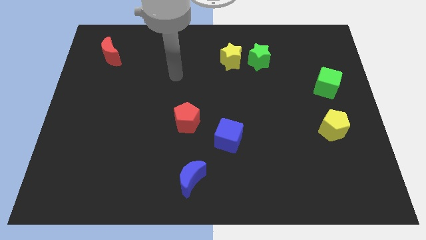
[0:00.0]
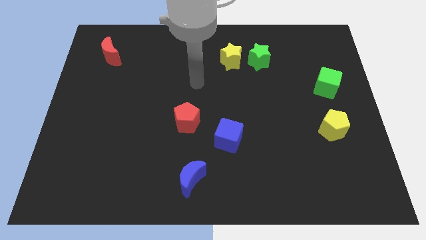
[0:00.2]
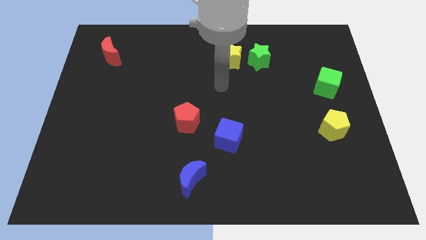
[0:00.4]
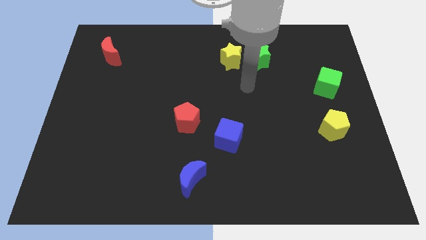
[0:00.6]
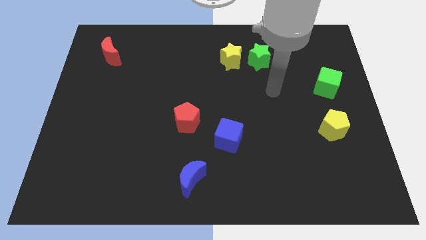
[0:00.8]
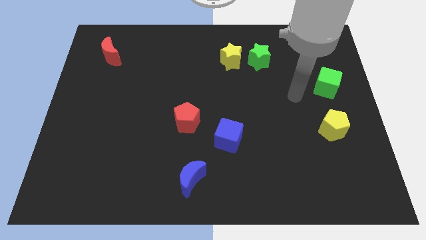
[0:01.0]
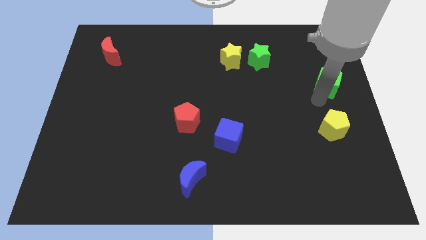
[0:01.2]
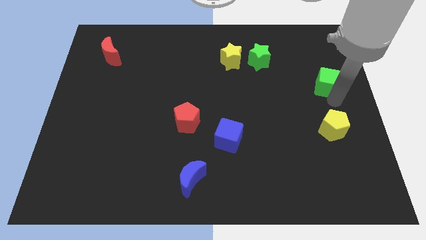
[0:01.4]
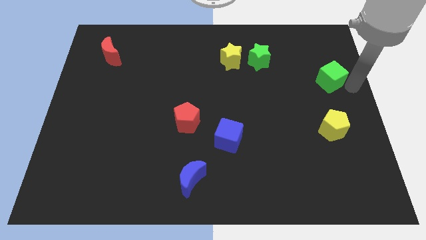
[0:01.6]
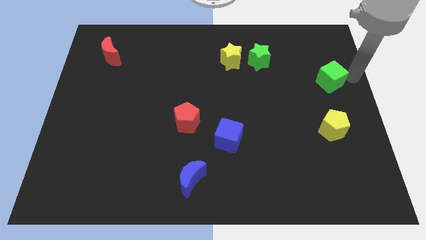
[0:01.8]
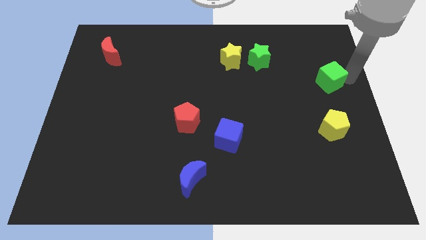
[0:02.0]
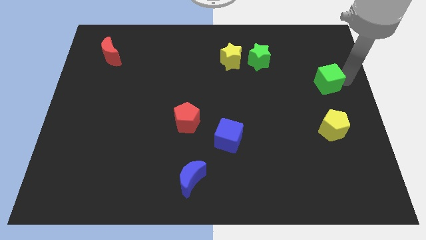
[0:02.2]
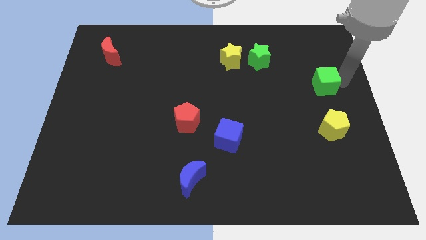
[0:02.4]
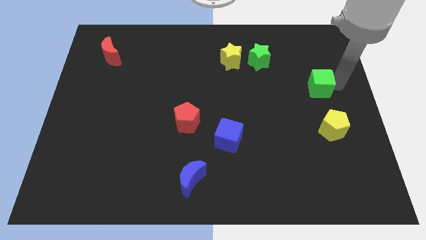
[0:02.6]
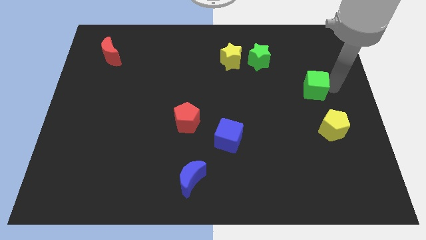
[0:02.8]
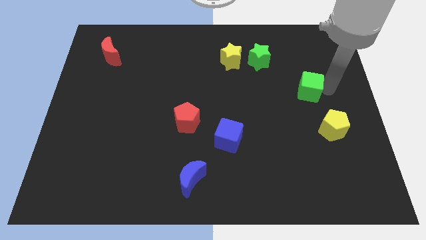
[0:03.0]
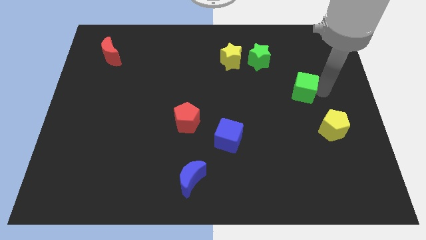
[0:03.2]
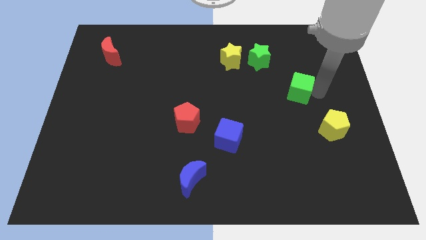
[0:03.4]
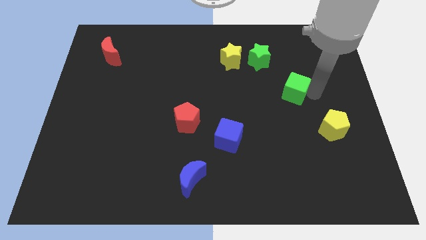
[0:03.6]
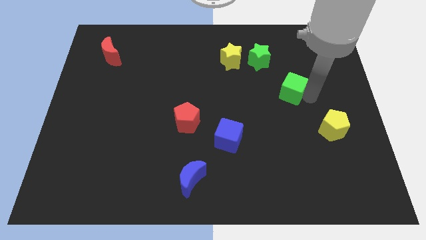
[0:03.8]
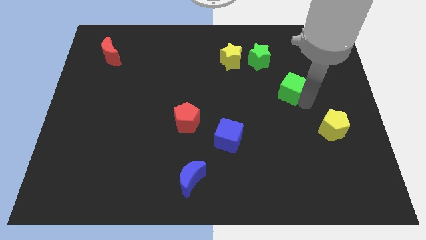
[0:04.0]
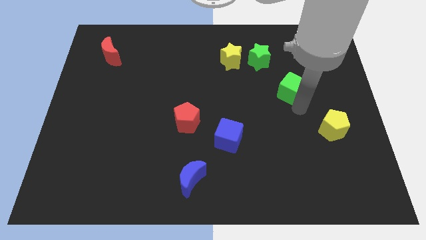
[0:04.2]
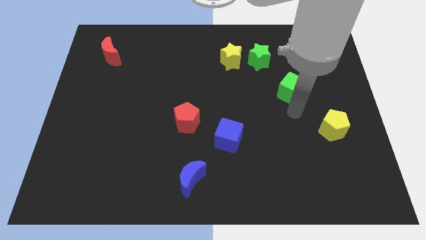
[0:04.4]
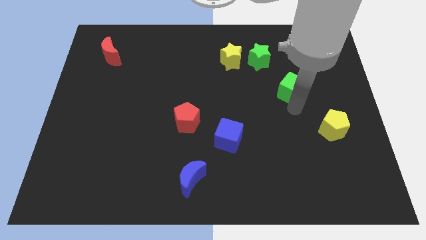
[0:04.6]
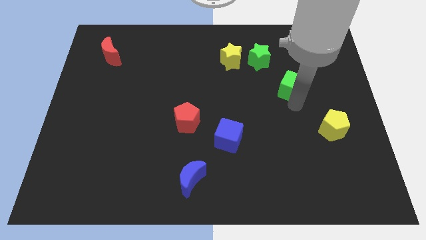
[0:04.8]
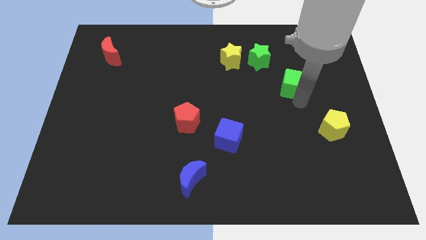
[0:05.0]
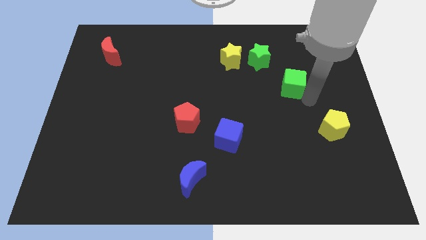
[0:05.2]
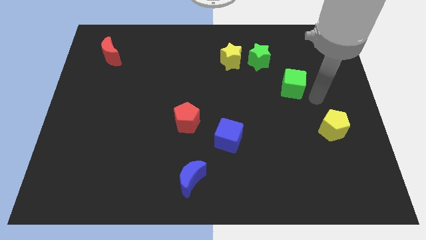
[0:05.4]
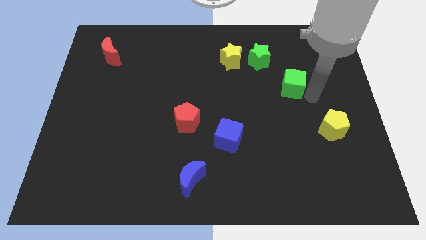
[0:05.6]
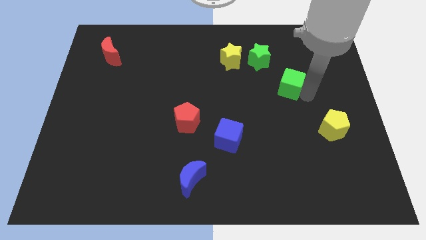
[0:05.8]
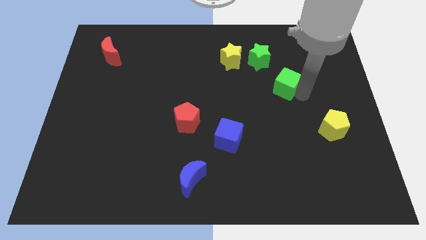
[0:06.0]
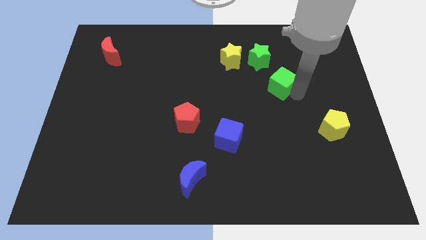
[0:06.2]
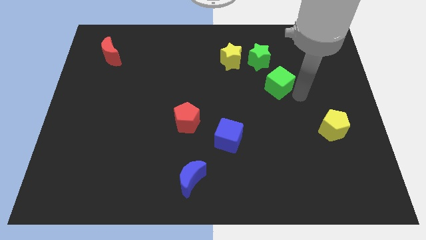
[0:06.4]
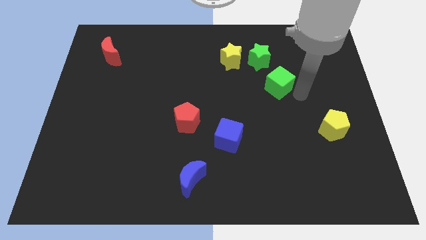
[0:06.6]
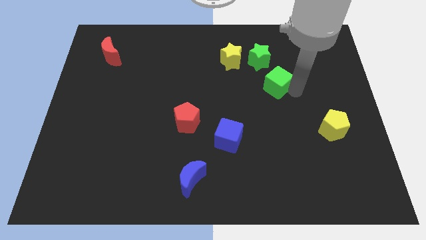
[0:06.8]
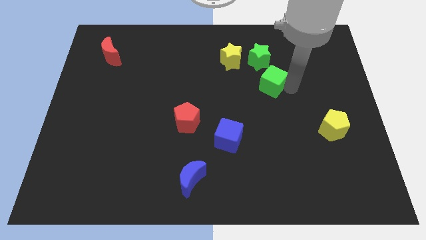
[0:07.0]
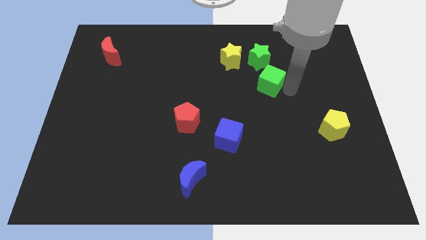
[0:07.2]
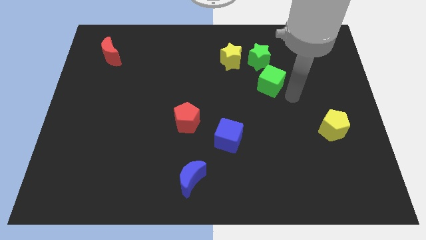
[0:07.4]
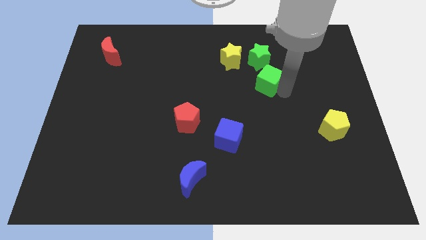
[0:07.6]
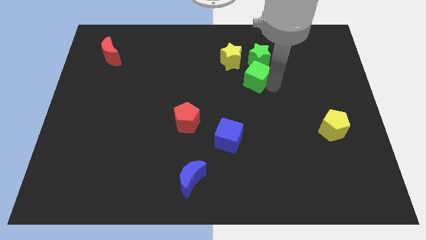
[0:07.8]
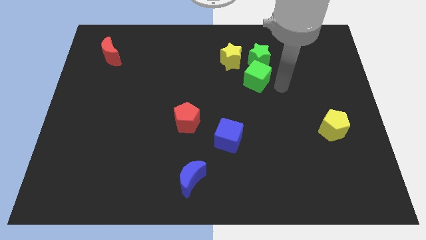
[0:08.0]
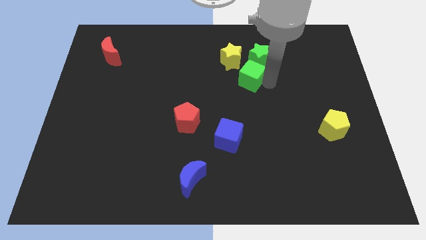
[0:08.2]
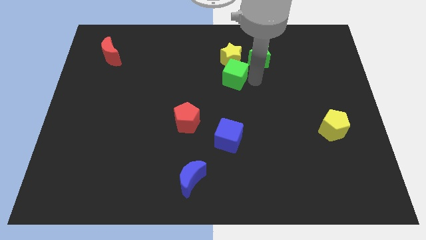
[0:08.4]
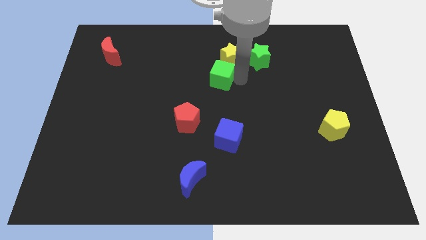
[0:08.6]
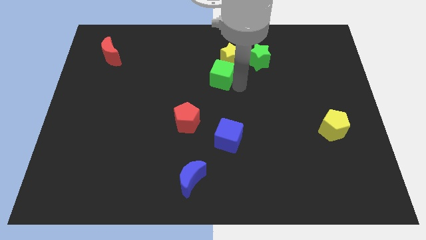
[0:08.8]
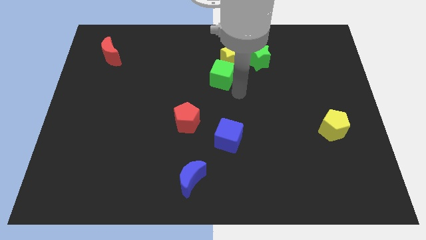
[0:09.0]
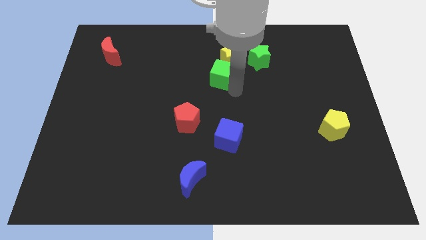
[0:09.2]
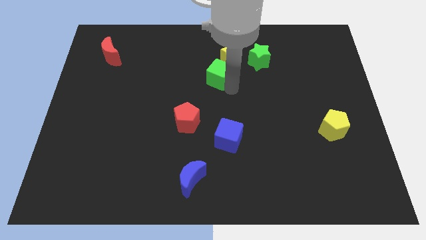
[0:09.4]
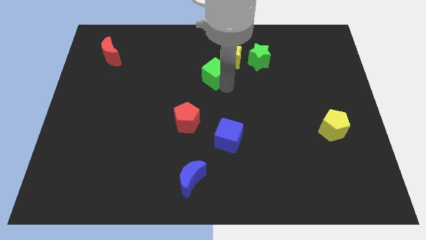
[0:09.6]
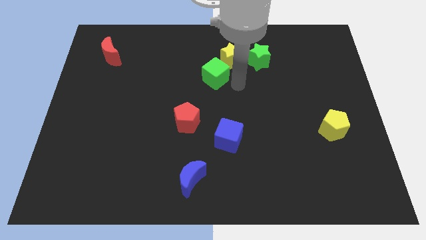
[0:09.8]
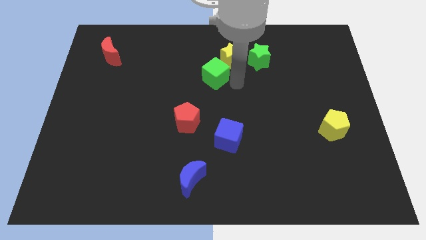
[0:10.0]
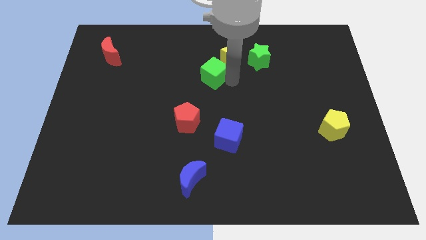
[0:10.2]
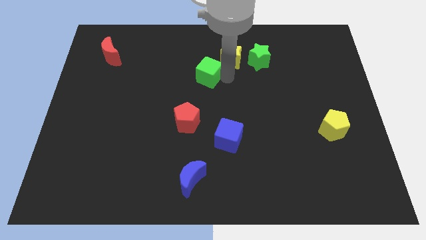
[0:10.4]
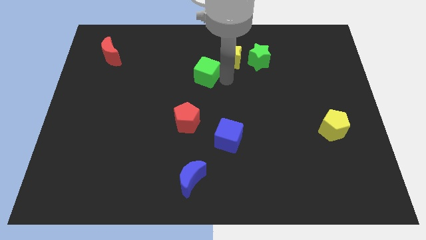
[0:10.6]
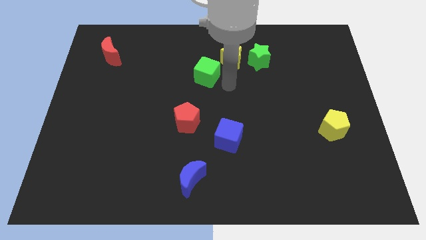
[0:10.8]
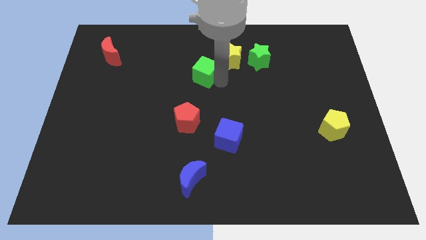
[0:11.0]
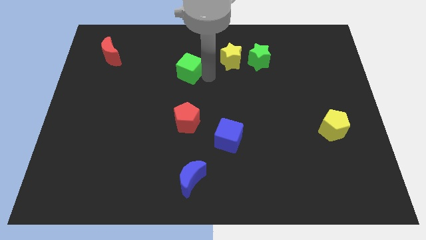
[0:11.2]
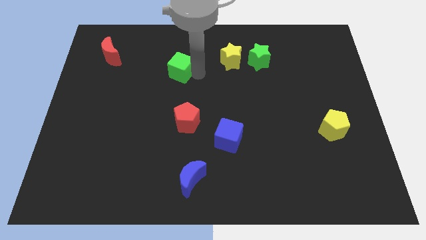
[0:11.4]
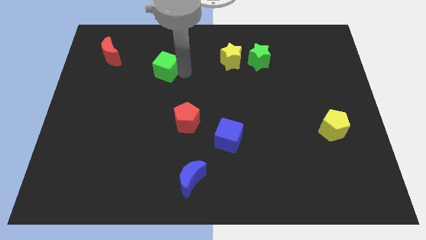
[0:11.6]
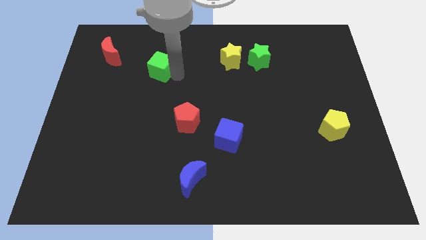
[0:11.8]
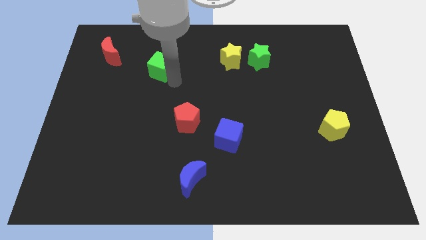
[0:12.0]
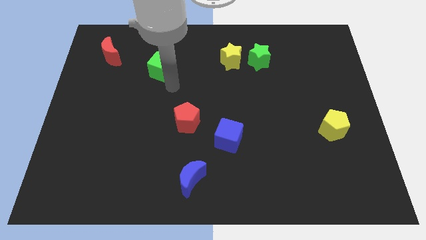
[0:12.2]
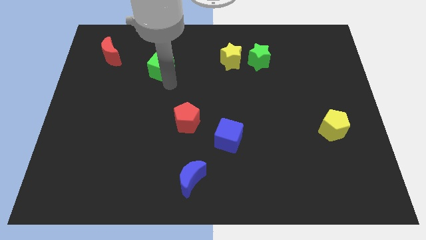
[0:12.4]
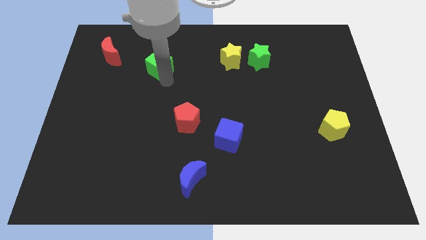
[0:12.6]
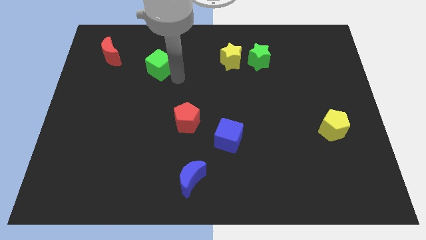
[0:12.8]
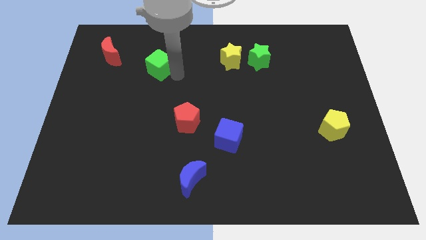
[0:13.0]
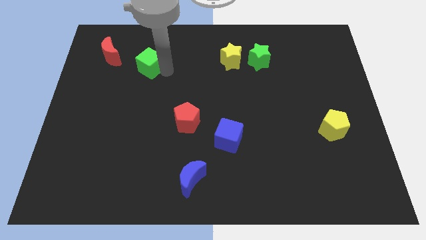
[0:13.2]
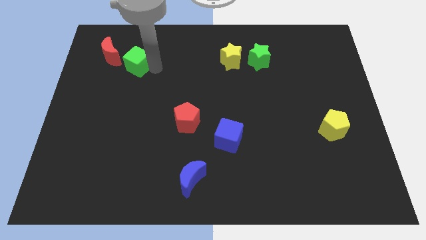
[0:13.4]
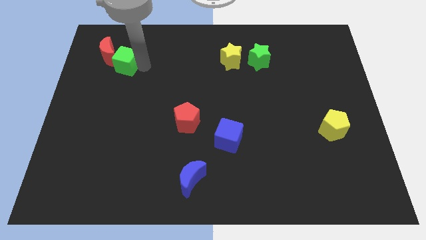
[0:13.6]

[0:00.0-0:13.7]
push the green cube next to the red moon
